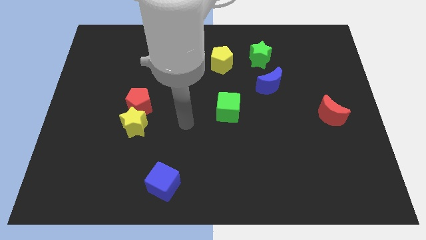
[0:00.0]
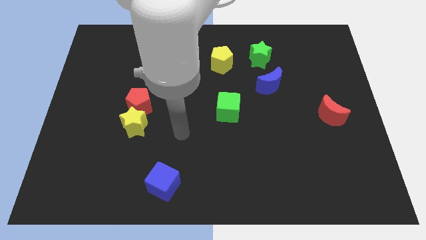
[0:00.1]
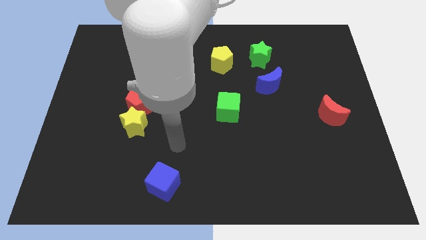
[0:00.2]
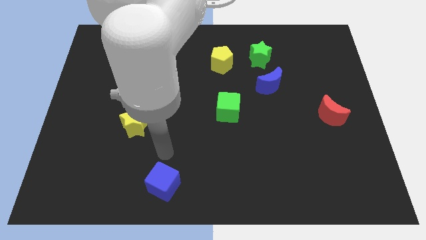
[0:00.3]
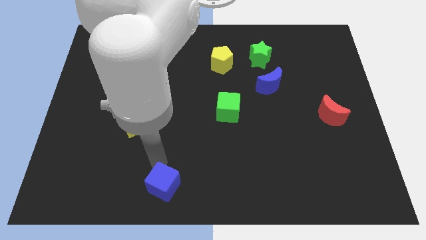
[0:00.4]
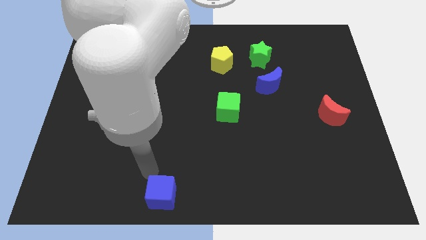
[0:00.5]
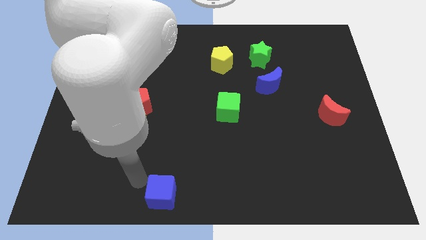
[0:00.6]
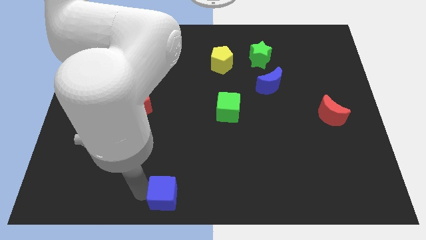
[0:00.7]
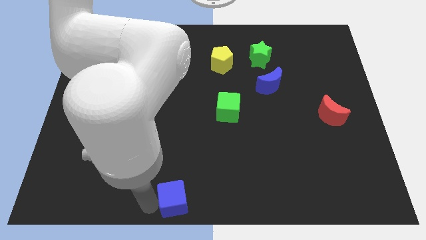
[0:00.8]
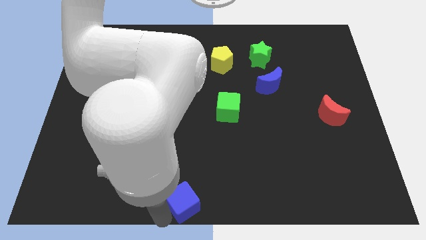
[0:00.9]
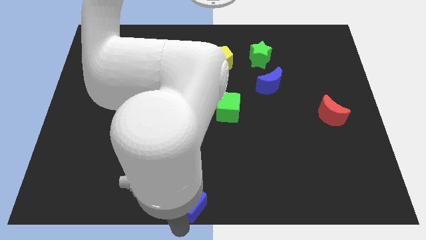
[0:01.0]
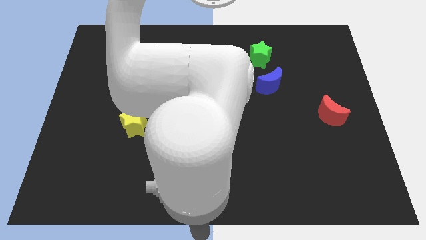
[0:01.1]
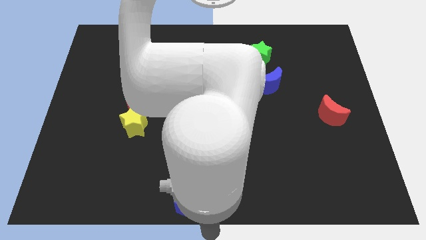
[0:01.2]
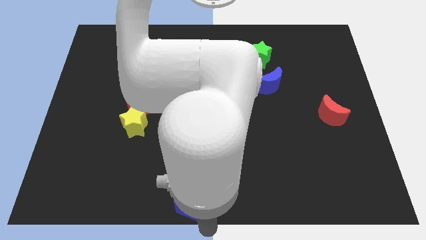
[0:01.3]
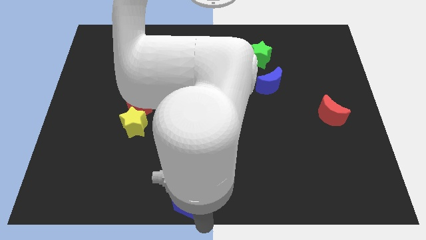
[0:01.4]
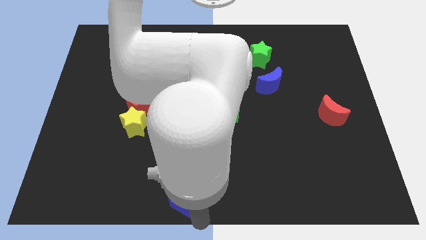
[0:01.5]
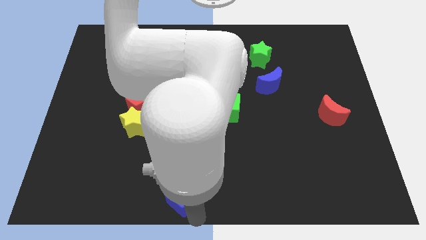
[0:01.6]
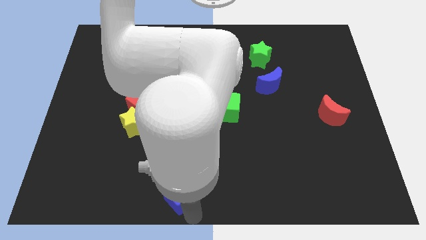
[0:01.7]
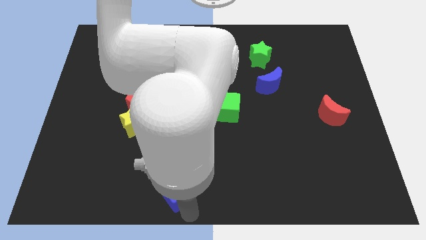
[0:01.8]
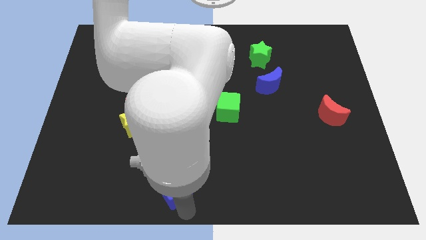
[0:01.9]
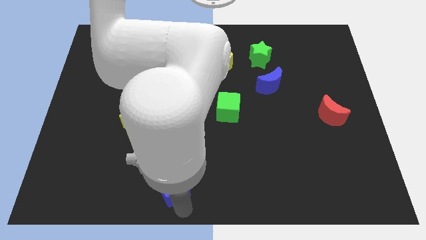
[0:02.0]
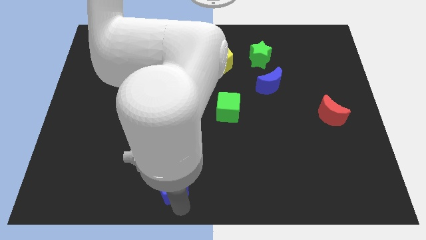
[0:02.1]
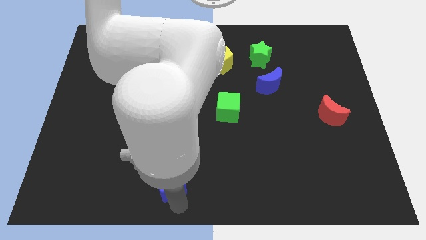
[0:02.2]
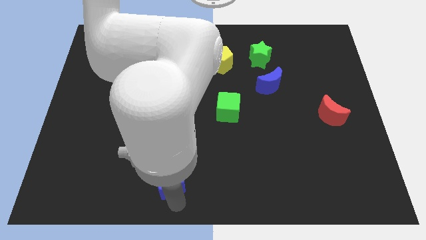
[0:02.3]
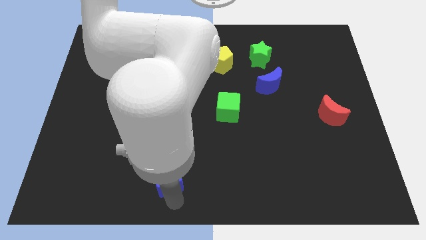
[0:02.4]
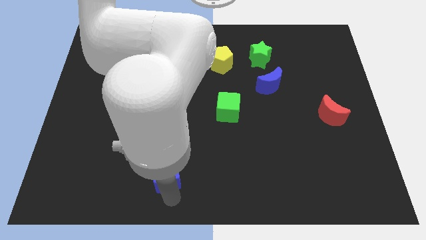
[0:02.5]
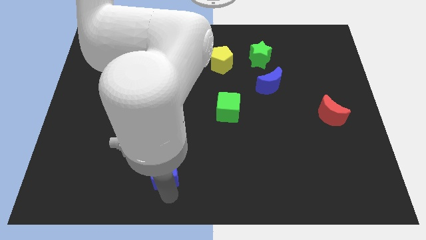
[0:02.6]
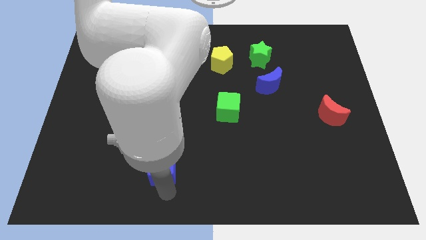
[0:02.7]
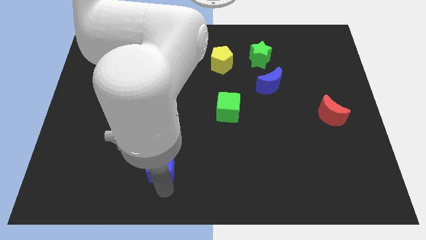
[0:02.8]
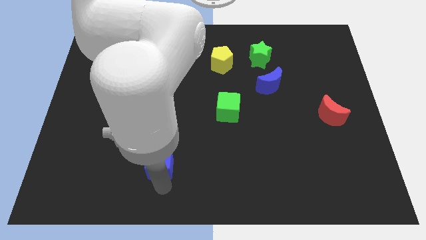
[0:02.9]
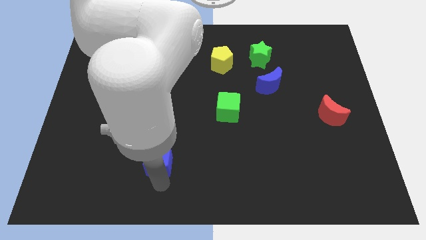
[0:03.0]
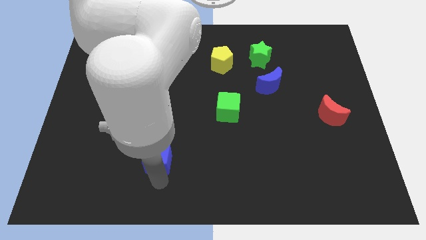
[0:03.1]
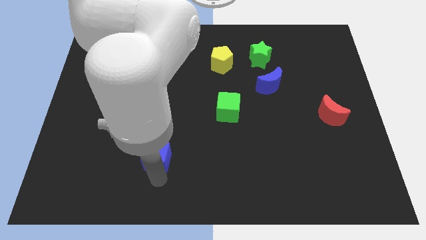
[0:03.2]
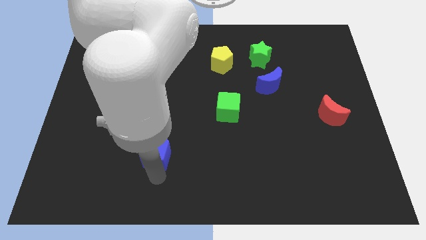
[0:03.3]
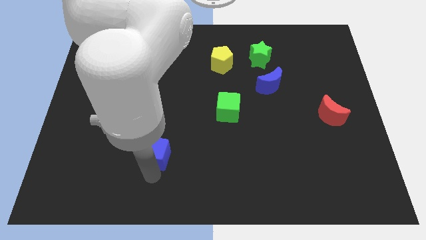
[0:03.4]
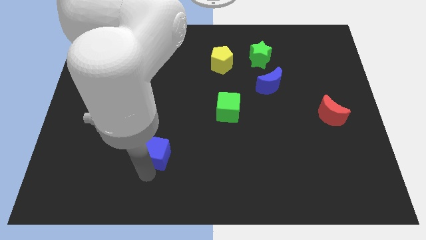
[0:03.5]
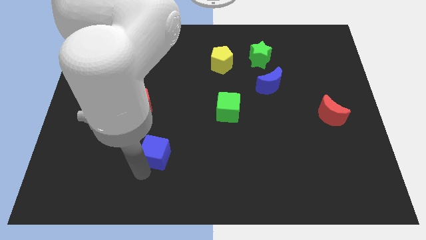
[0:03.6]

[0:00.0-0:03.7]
slide the blue cube a little bit up

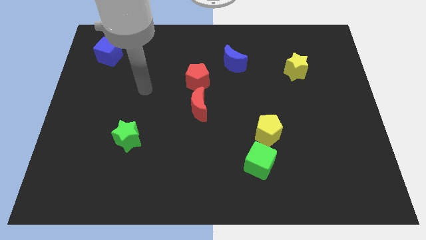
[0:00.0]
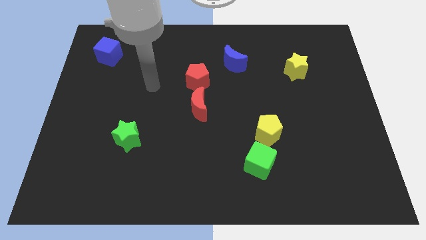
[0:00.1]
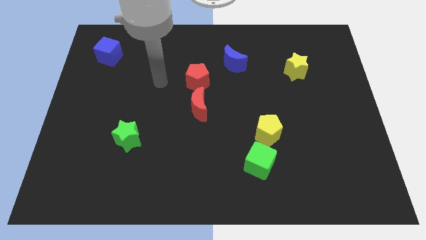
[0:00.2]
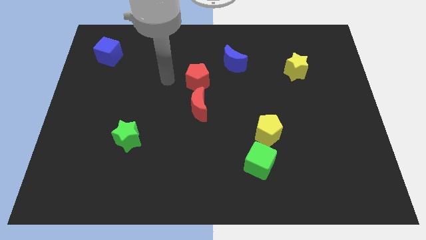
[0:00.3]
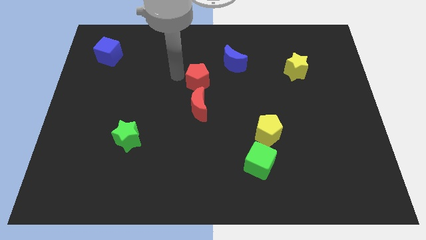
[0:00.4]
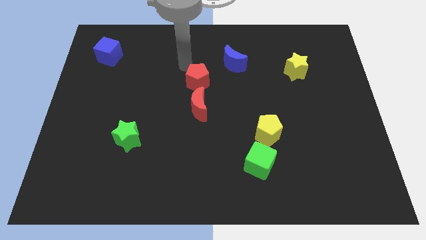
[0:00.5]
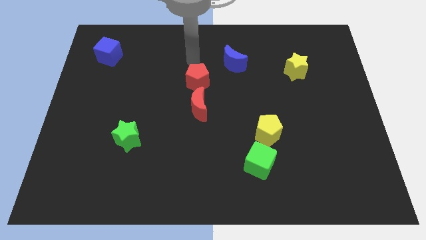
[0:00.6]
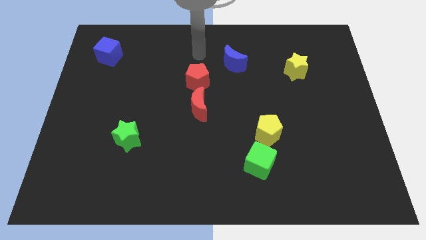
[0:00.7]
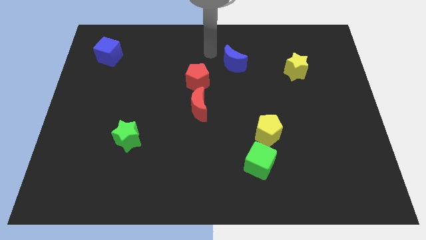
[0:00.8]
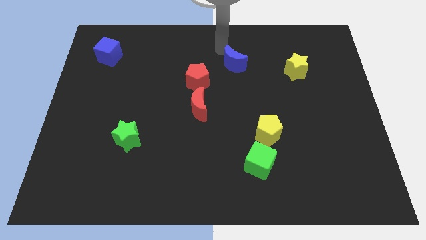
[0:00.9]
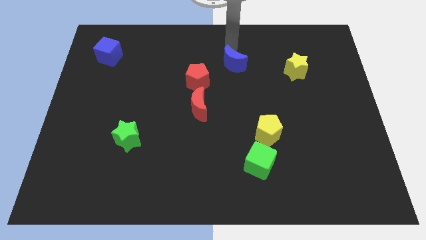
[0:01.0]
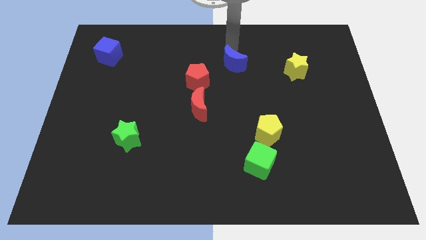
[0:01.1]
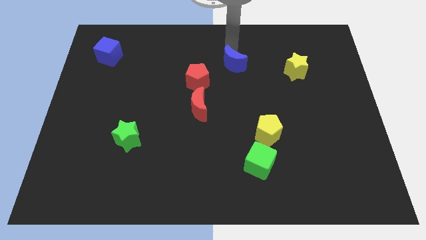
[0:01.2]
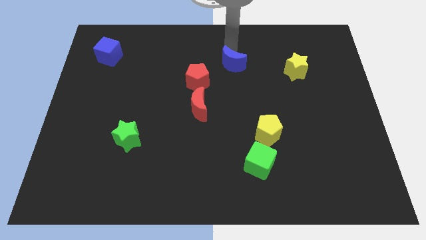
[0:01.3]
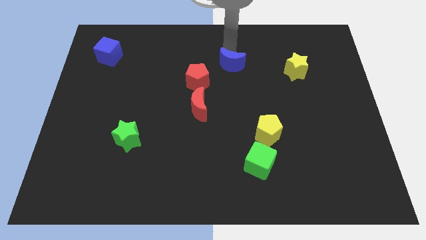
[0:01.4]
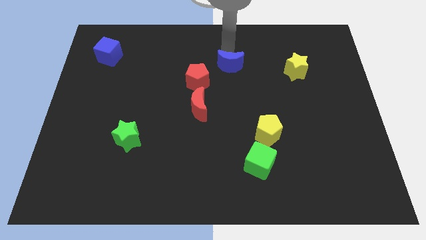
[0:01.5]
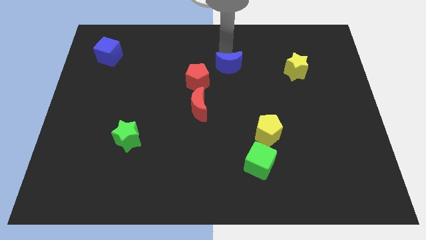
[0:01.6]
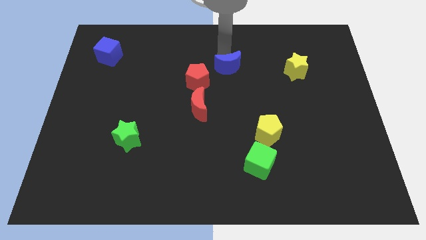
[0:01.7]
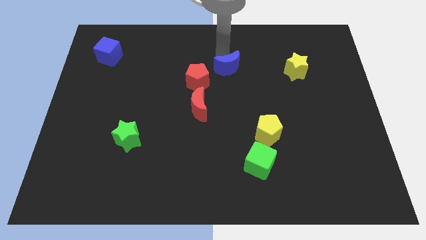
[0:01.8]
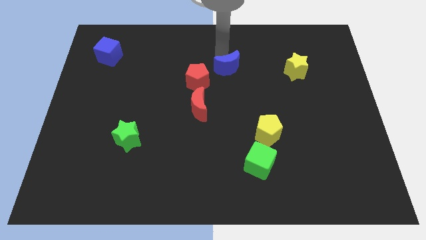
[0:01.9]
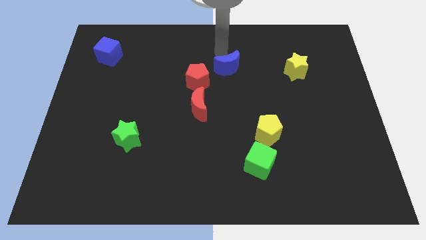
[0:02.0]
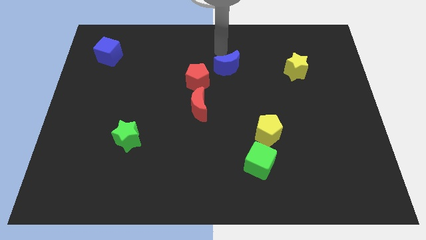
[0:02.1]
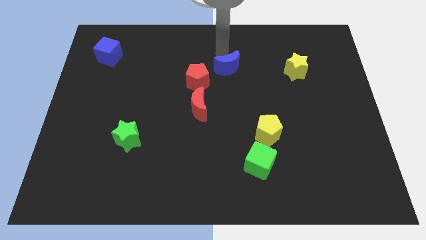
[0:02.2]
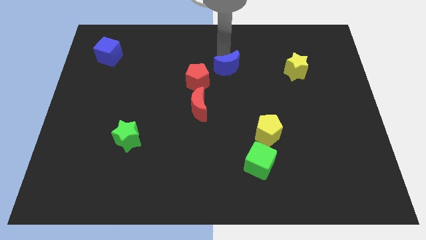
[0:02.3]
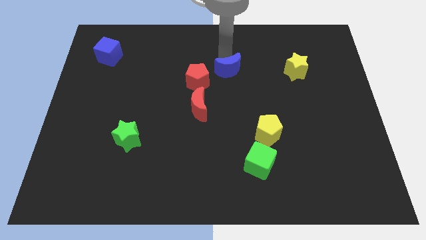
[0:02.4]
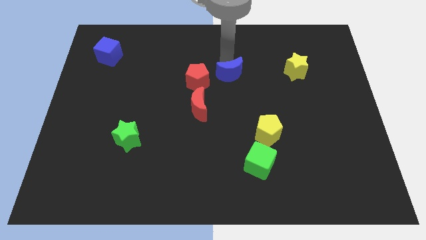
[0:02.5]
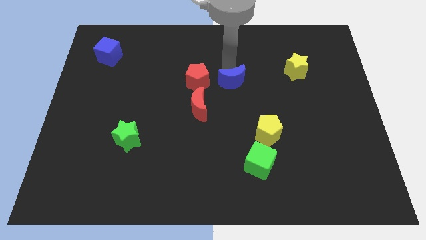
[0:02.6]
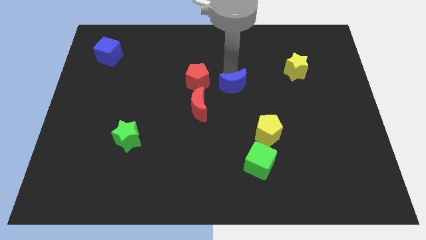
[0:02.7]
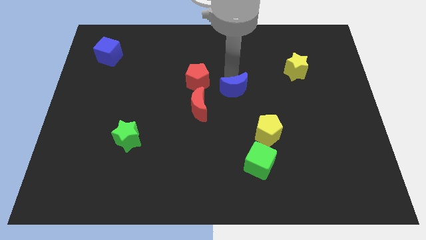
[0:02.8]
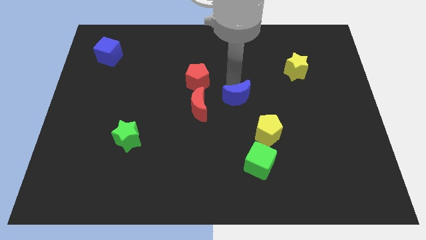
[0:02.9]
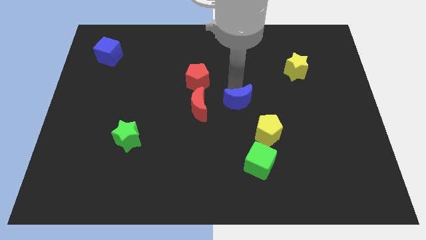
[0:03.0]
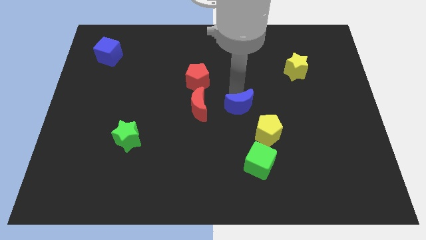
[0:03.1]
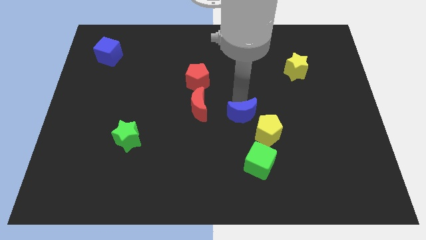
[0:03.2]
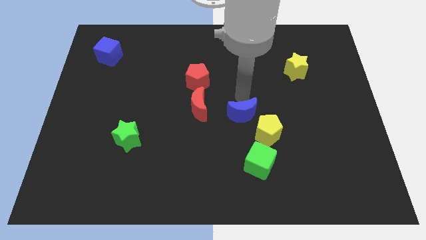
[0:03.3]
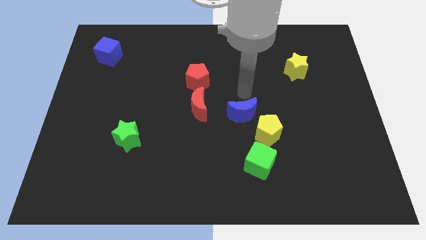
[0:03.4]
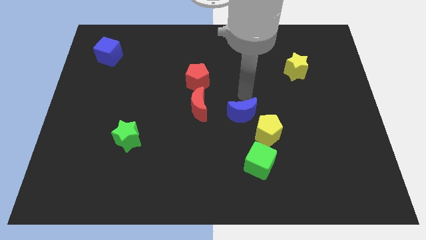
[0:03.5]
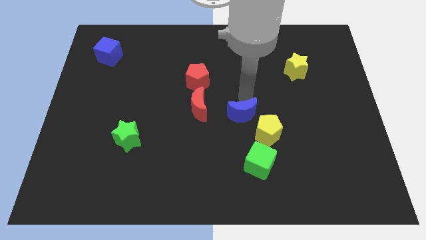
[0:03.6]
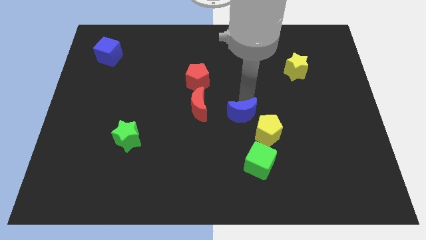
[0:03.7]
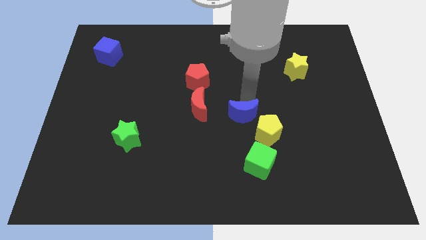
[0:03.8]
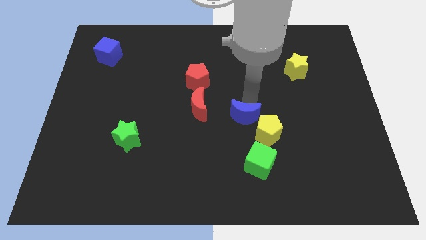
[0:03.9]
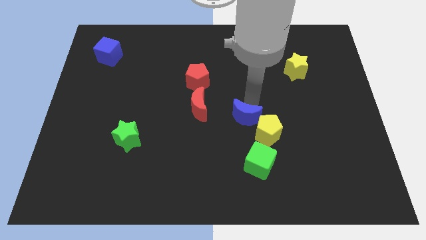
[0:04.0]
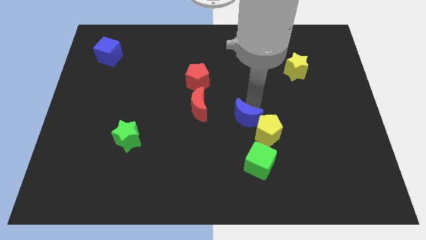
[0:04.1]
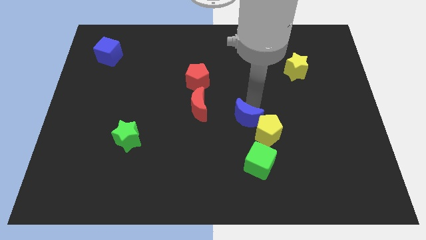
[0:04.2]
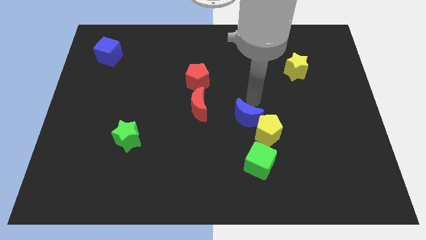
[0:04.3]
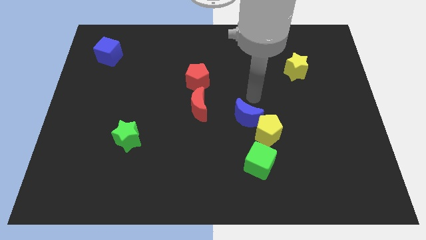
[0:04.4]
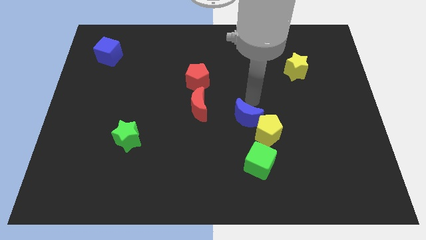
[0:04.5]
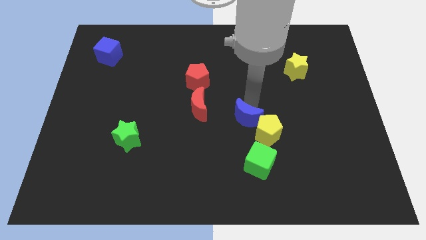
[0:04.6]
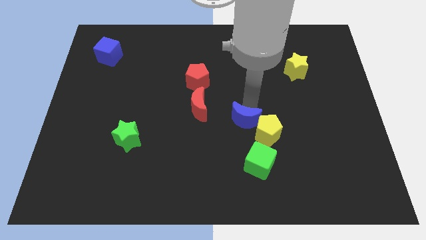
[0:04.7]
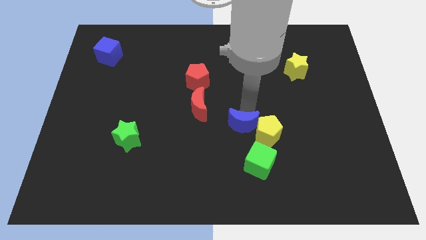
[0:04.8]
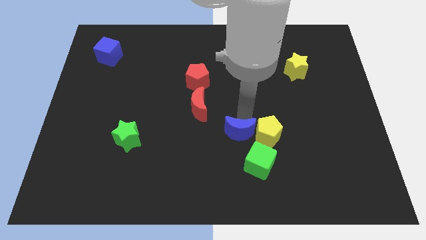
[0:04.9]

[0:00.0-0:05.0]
move the blue moon down
